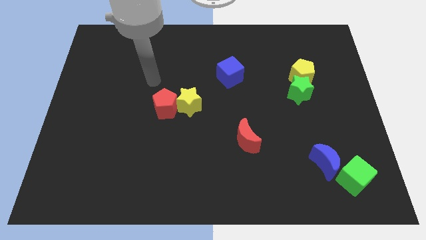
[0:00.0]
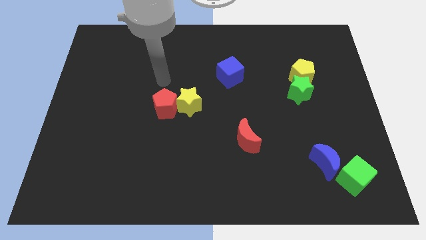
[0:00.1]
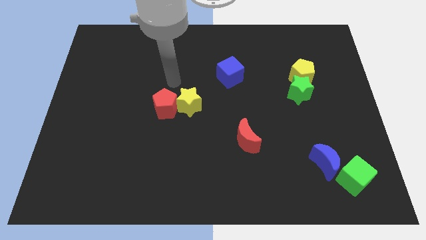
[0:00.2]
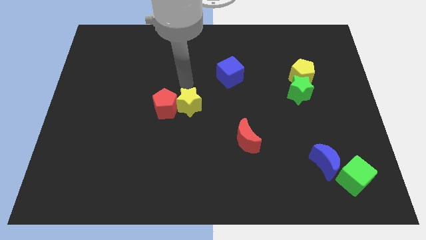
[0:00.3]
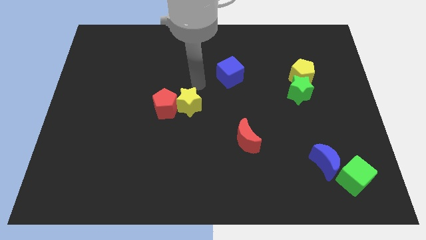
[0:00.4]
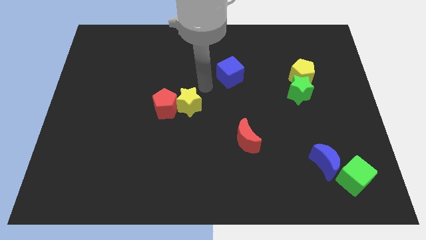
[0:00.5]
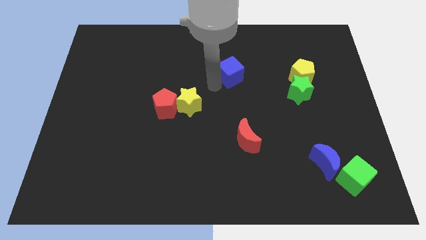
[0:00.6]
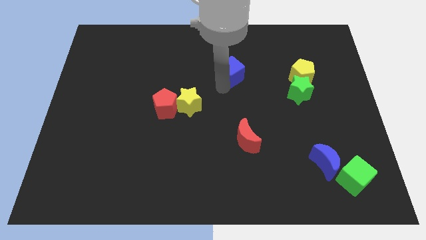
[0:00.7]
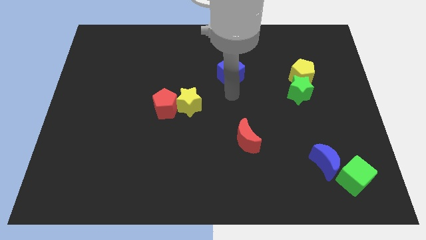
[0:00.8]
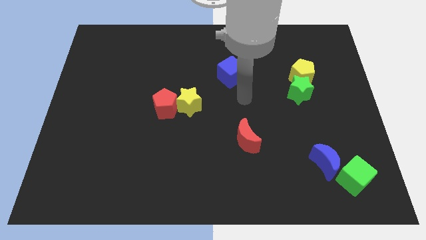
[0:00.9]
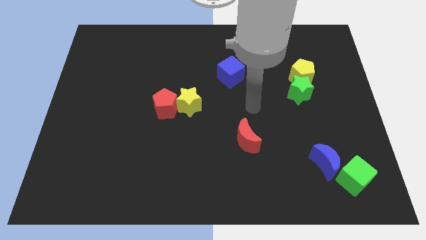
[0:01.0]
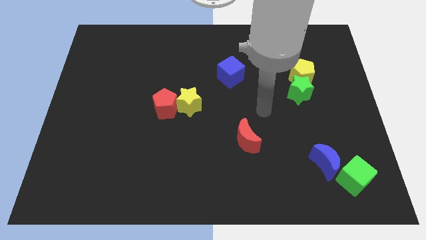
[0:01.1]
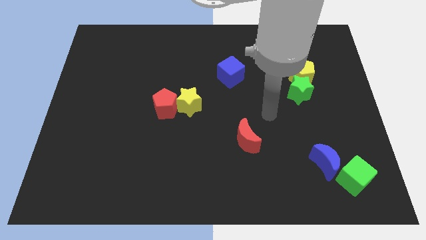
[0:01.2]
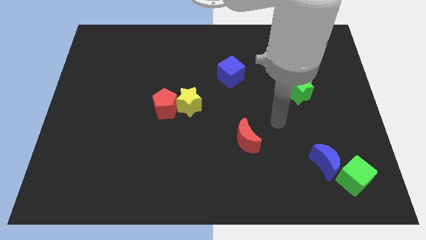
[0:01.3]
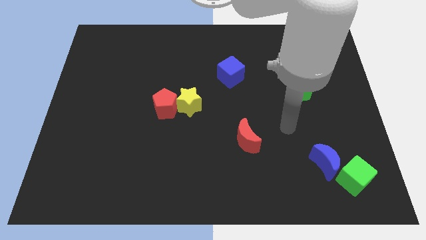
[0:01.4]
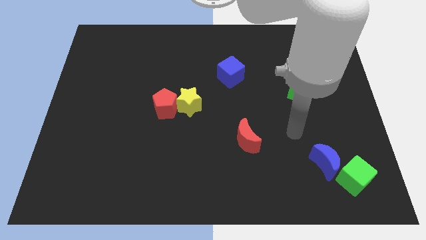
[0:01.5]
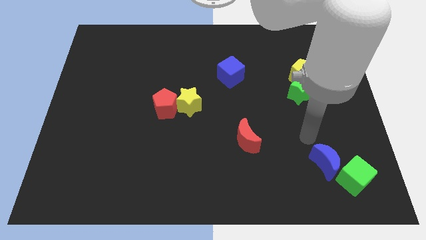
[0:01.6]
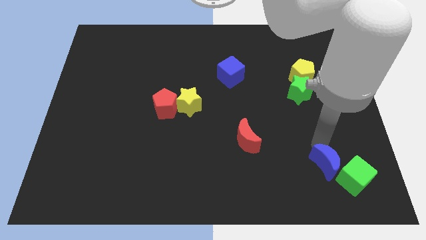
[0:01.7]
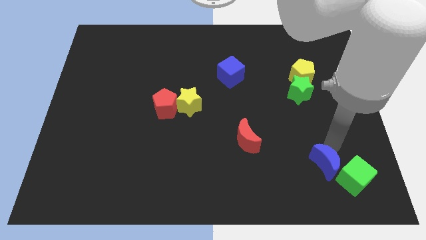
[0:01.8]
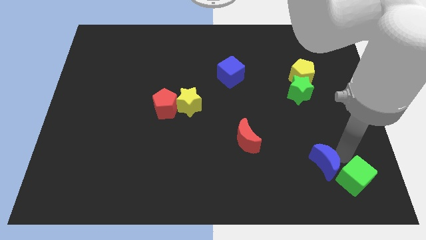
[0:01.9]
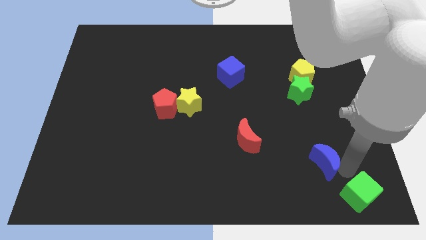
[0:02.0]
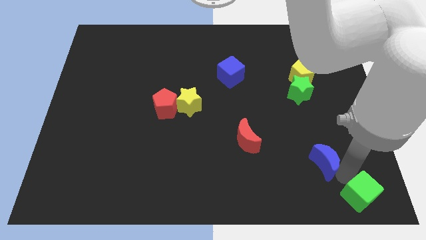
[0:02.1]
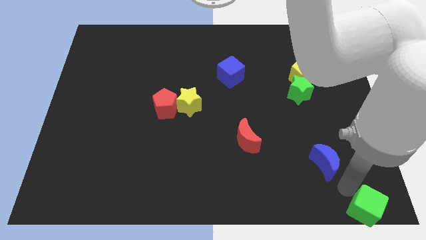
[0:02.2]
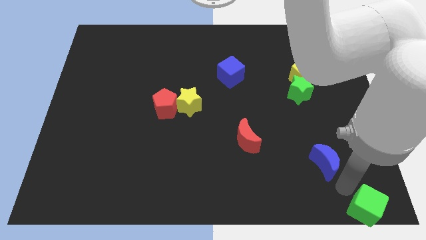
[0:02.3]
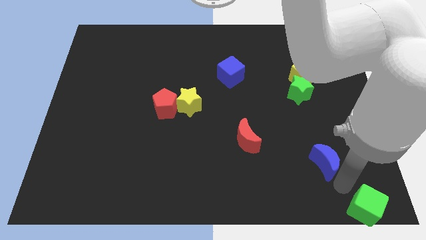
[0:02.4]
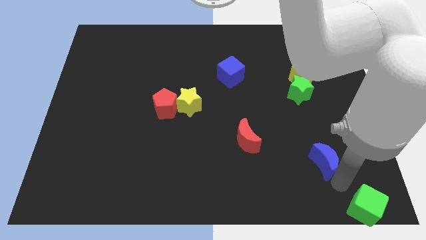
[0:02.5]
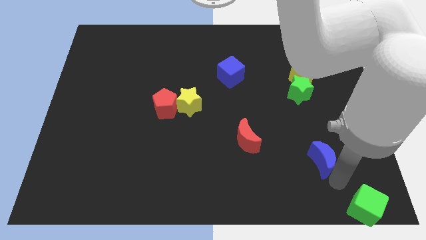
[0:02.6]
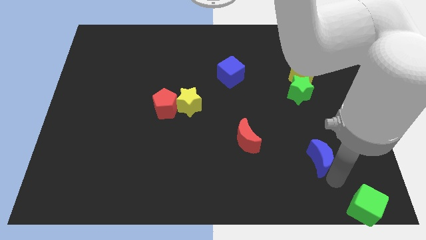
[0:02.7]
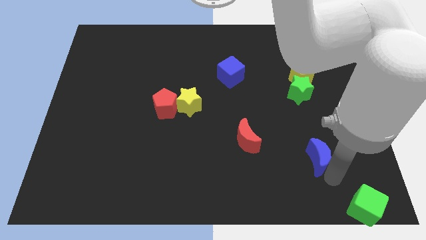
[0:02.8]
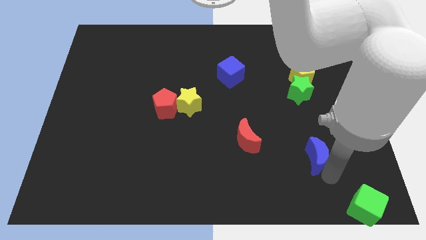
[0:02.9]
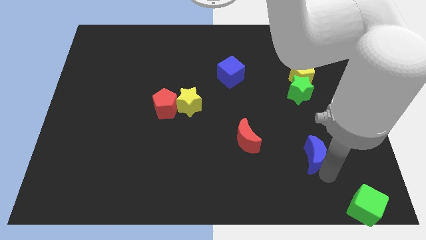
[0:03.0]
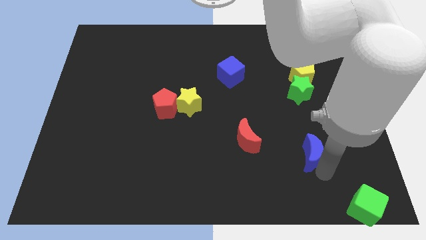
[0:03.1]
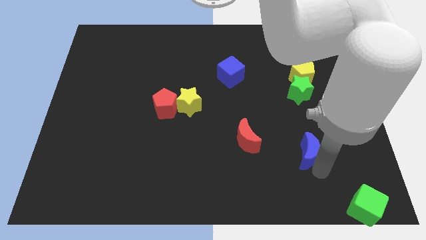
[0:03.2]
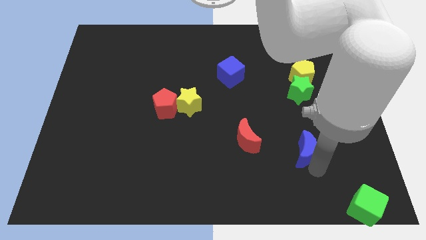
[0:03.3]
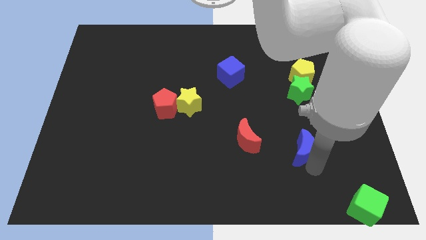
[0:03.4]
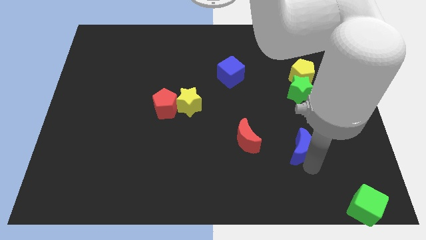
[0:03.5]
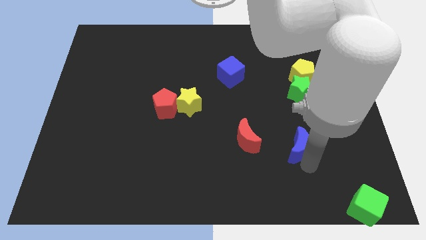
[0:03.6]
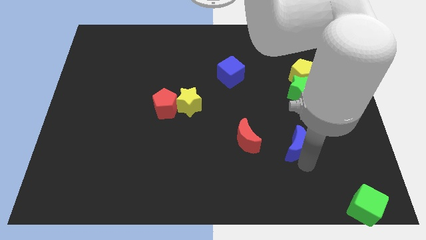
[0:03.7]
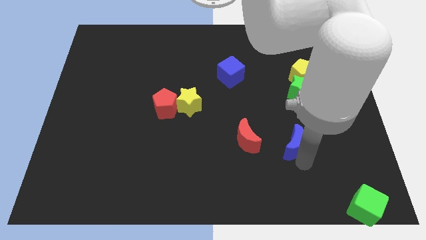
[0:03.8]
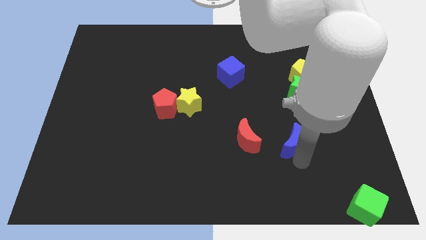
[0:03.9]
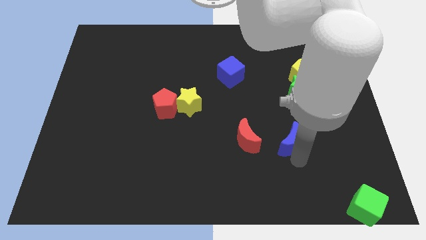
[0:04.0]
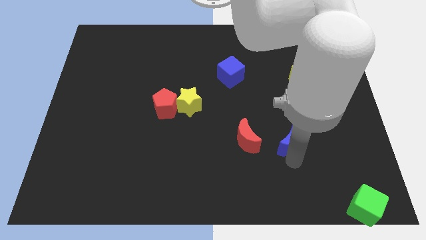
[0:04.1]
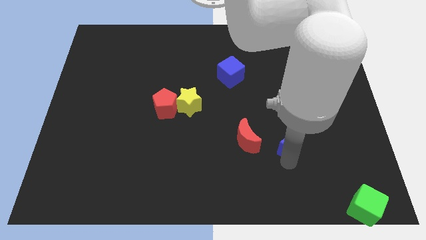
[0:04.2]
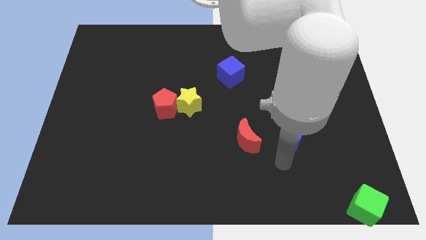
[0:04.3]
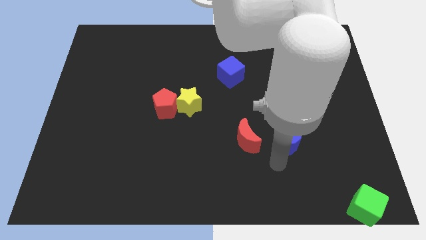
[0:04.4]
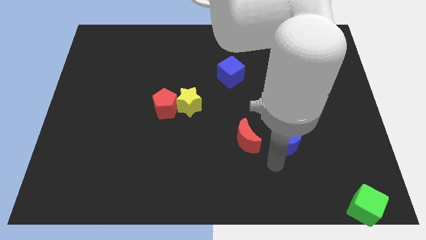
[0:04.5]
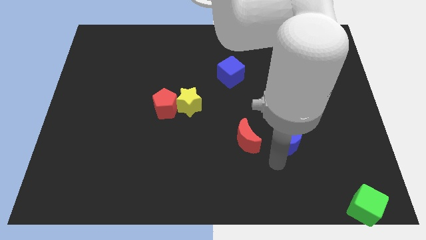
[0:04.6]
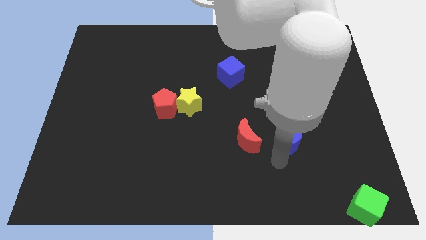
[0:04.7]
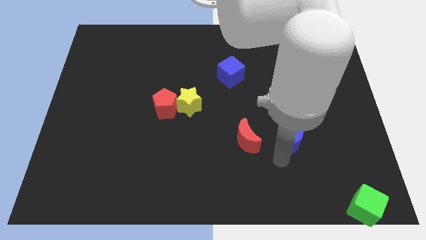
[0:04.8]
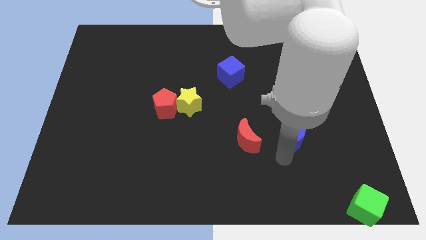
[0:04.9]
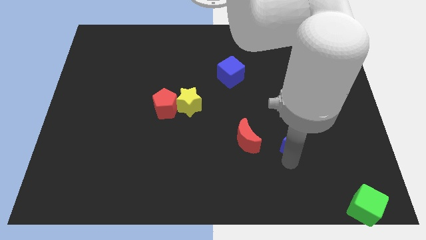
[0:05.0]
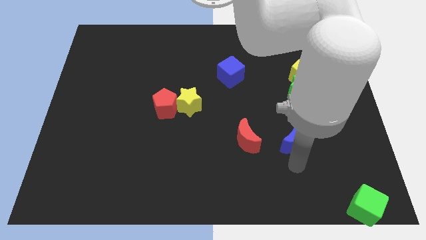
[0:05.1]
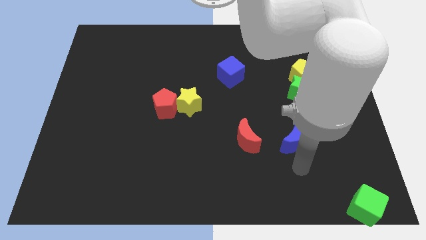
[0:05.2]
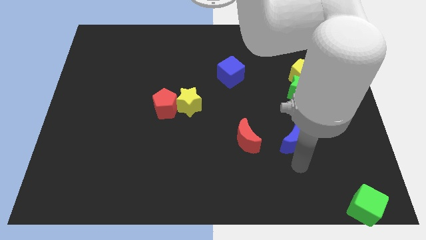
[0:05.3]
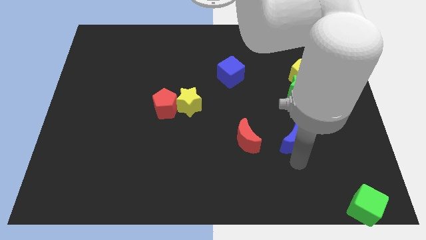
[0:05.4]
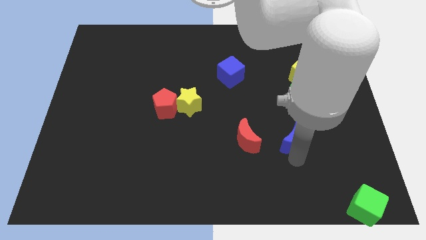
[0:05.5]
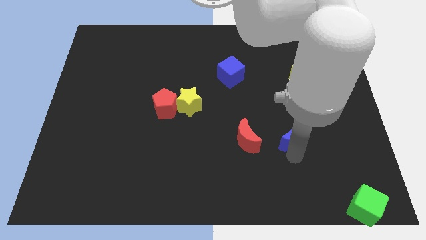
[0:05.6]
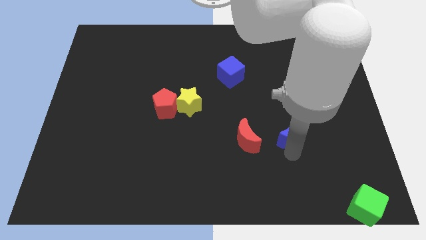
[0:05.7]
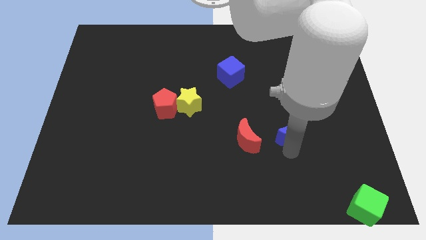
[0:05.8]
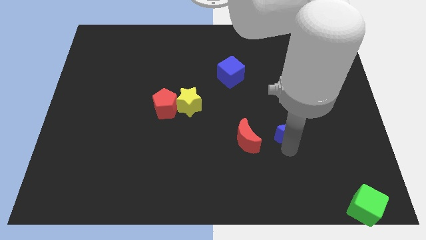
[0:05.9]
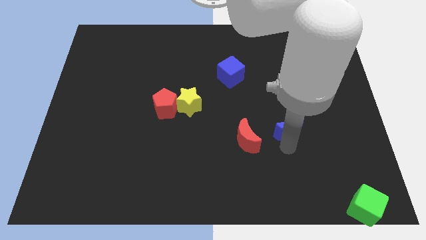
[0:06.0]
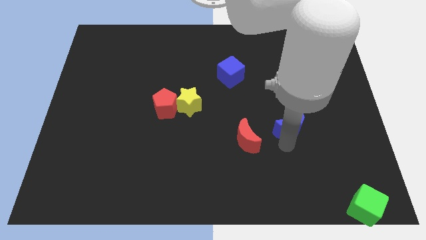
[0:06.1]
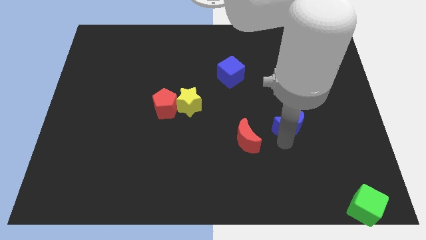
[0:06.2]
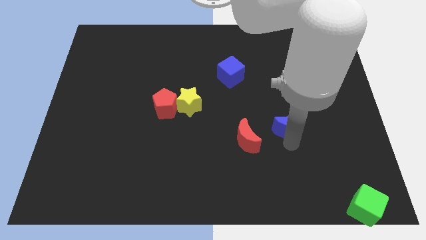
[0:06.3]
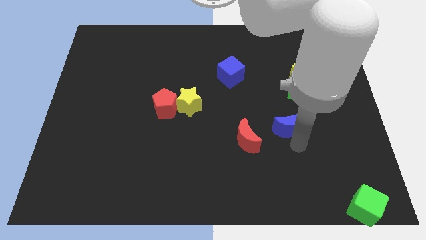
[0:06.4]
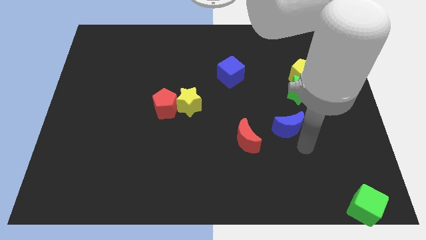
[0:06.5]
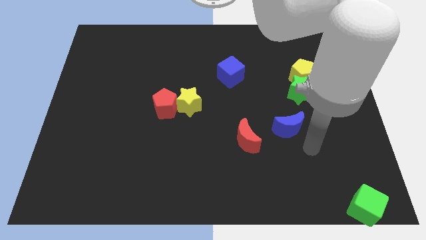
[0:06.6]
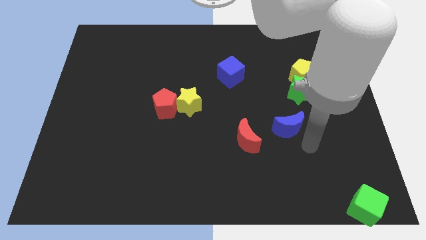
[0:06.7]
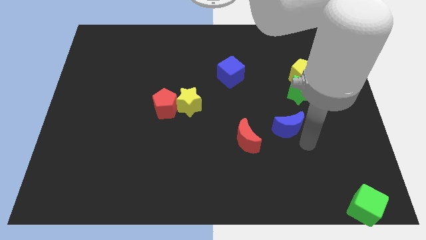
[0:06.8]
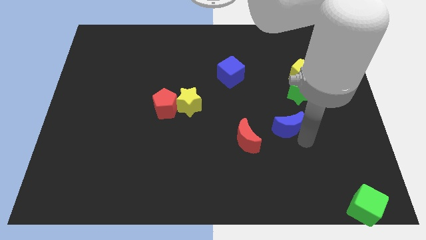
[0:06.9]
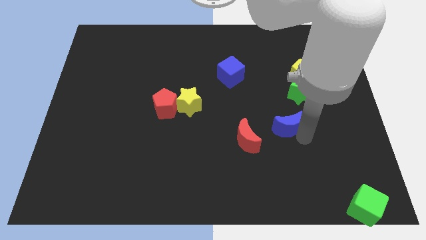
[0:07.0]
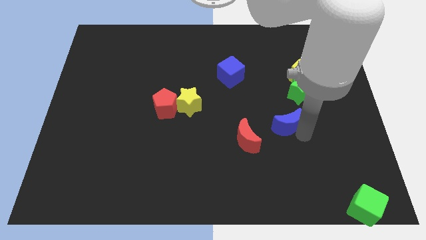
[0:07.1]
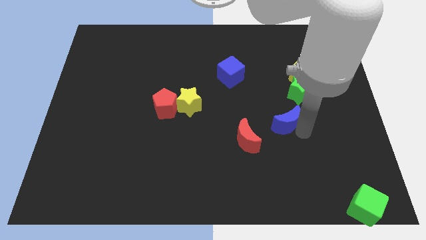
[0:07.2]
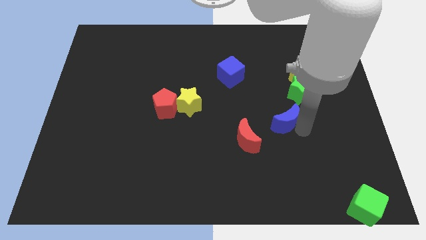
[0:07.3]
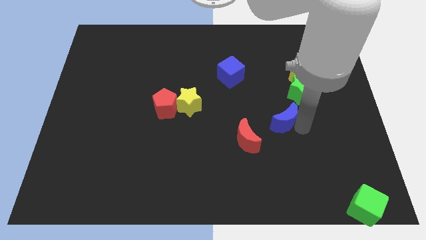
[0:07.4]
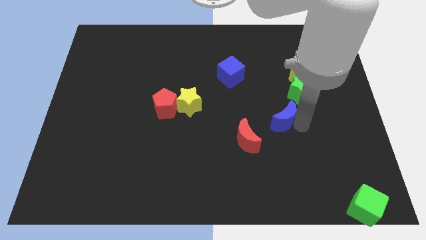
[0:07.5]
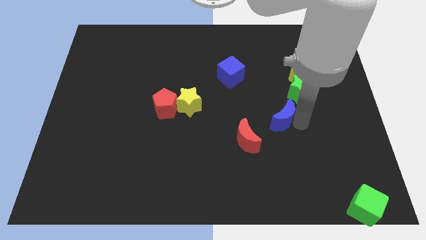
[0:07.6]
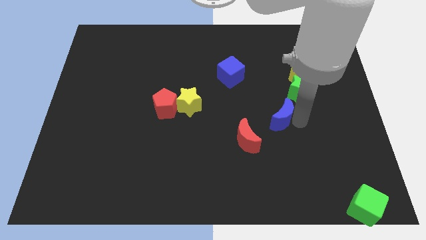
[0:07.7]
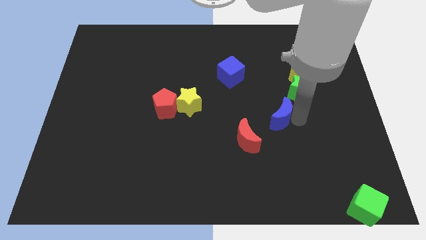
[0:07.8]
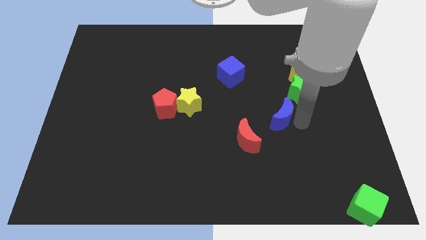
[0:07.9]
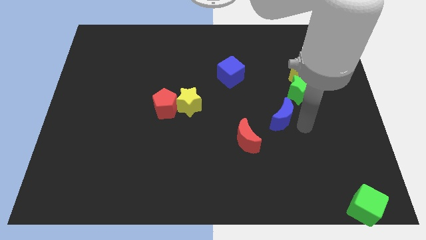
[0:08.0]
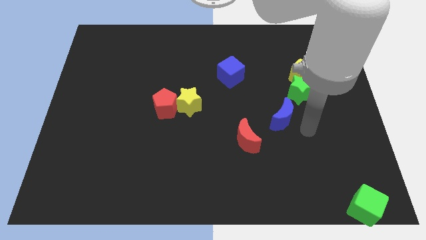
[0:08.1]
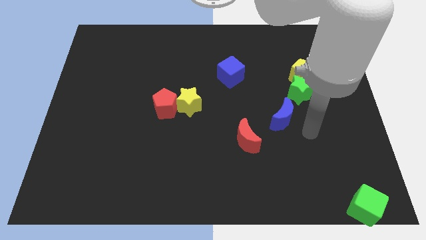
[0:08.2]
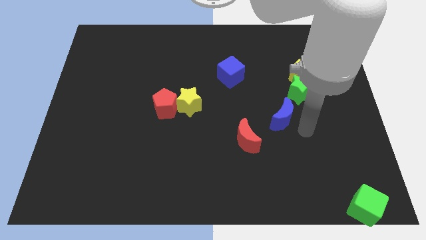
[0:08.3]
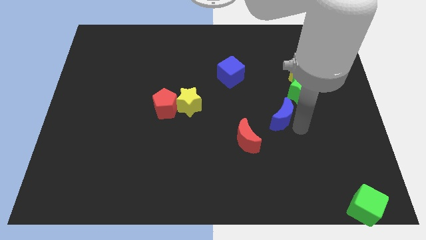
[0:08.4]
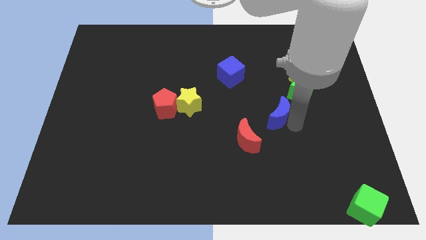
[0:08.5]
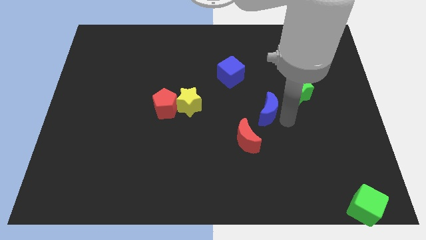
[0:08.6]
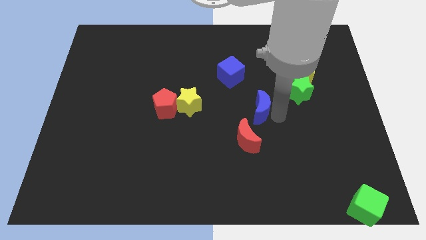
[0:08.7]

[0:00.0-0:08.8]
put the blue moon to the center of the board
